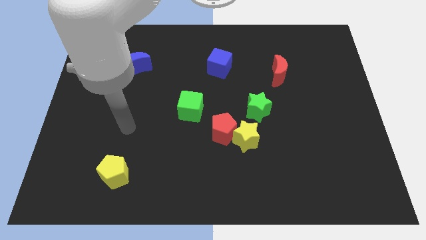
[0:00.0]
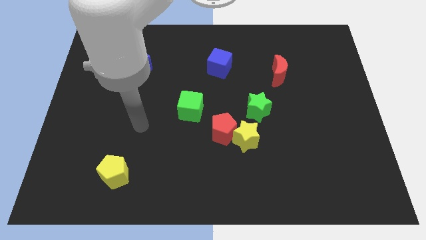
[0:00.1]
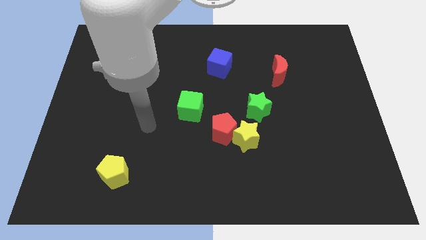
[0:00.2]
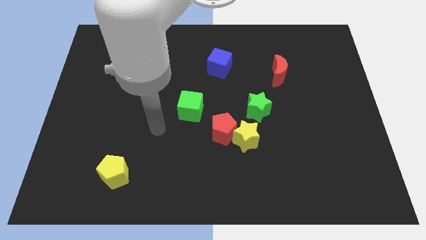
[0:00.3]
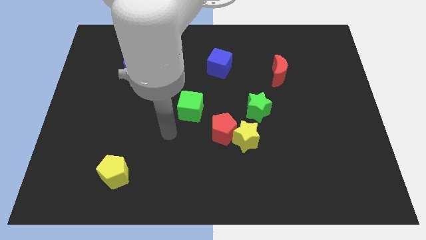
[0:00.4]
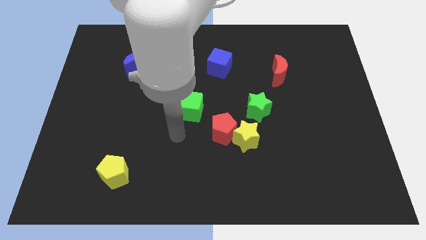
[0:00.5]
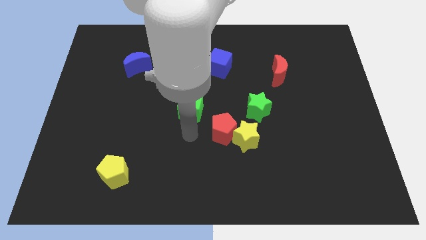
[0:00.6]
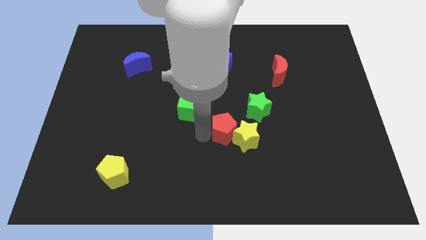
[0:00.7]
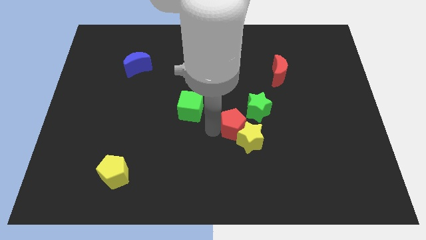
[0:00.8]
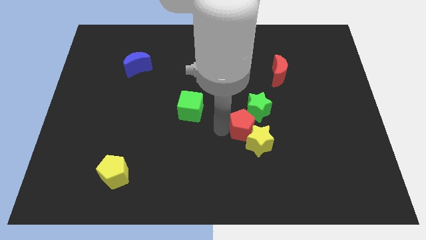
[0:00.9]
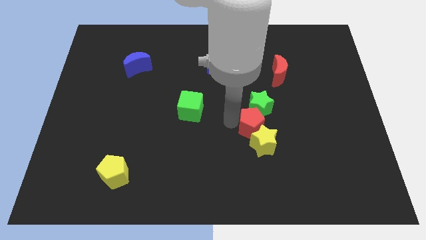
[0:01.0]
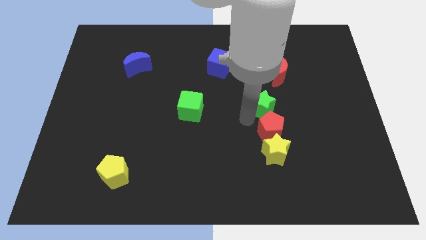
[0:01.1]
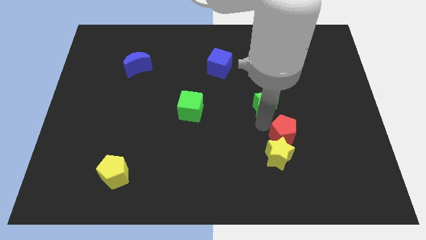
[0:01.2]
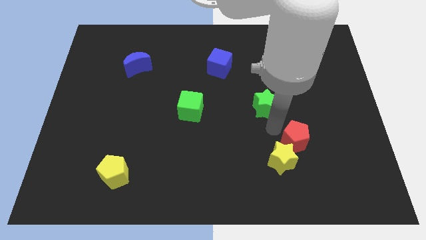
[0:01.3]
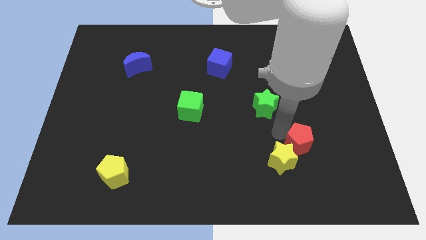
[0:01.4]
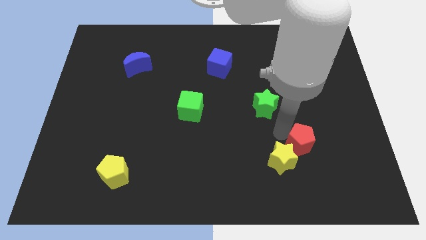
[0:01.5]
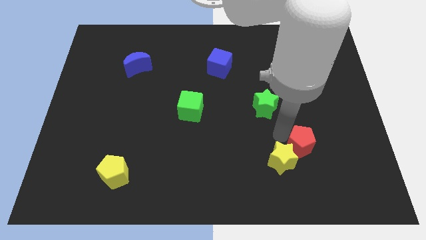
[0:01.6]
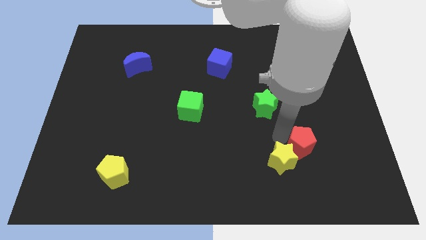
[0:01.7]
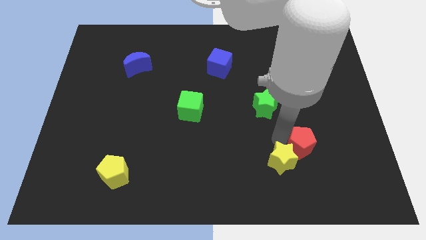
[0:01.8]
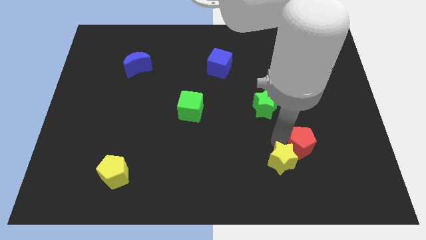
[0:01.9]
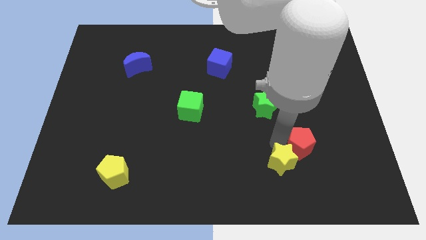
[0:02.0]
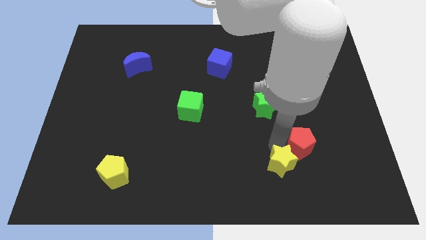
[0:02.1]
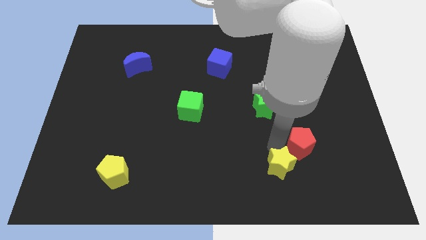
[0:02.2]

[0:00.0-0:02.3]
separate the yellow star from the red pentagon and green star

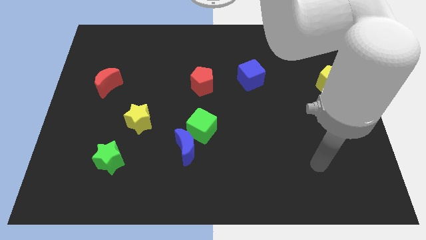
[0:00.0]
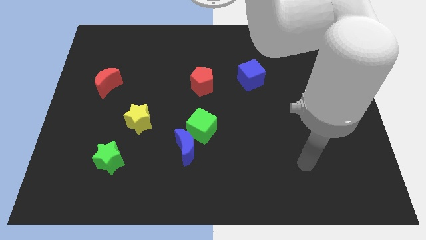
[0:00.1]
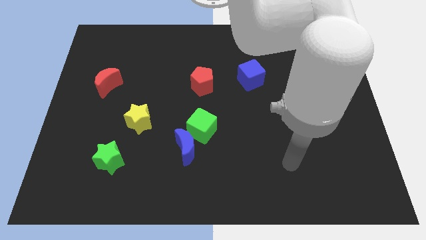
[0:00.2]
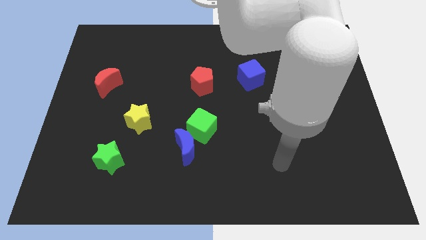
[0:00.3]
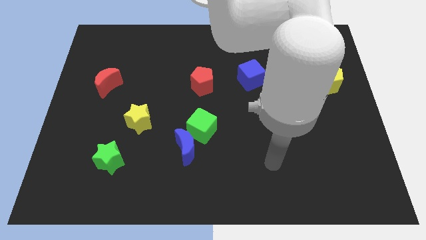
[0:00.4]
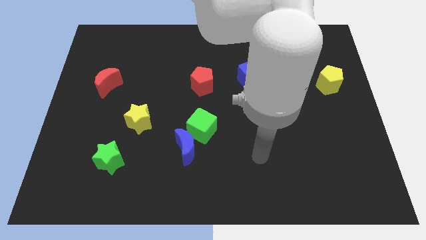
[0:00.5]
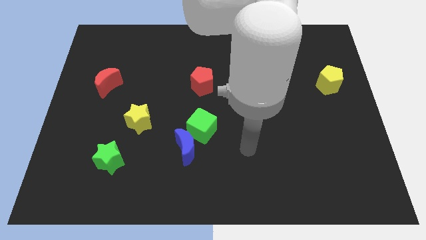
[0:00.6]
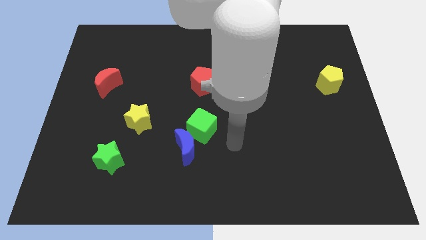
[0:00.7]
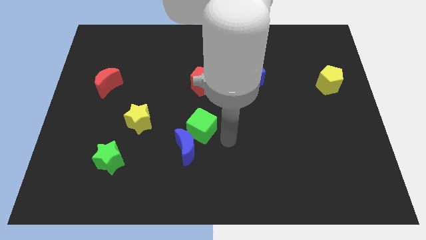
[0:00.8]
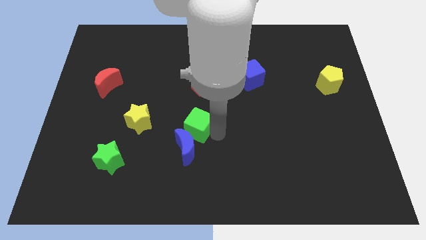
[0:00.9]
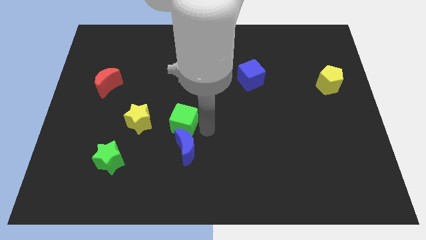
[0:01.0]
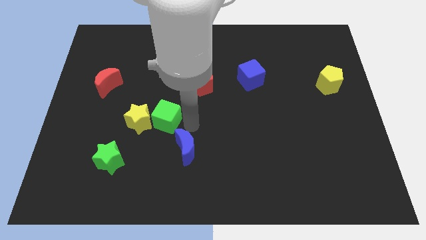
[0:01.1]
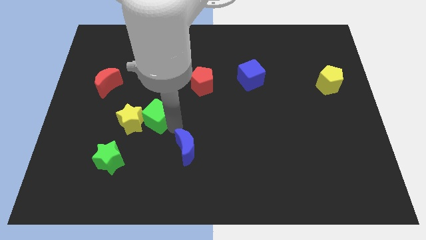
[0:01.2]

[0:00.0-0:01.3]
separate the blue moon from the green cube

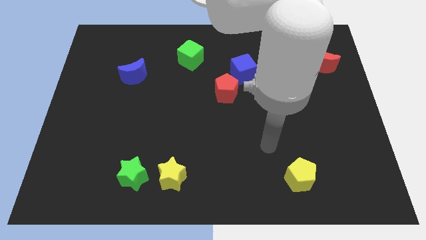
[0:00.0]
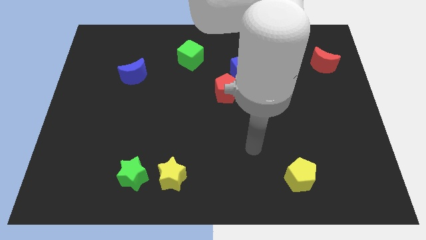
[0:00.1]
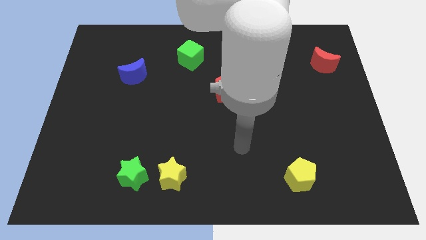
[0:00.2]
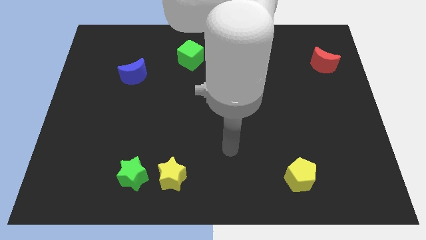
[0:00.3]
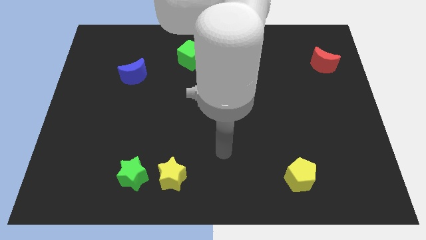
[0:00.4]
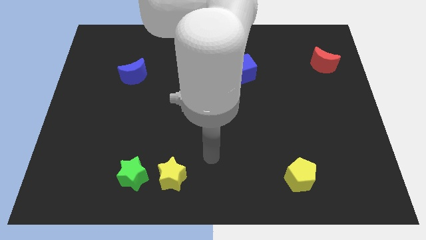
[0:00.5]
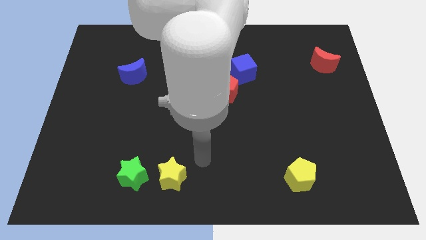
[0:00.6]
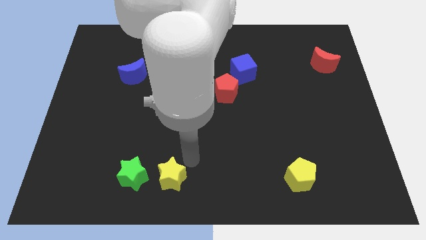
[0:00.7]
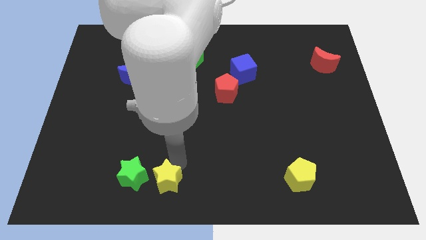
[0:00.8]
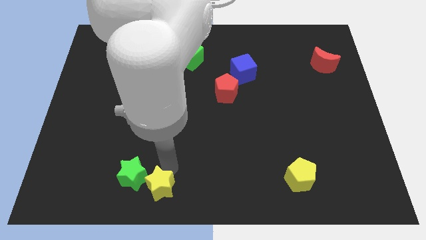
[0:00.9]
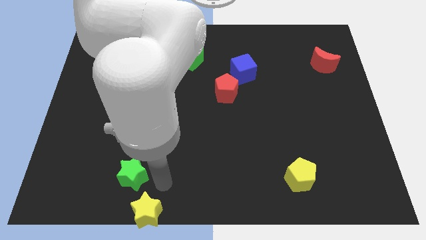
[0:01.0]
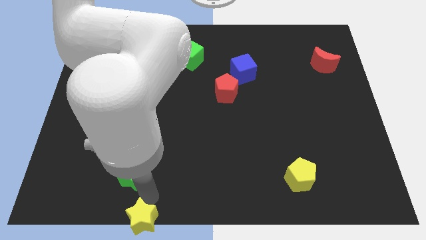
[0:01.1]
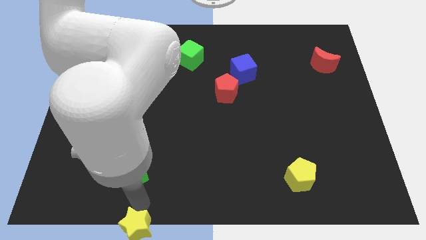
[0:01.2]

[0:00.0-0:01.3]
separate the green star from the yellow star

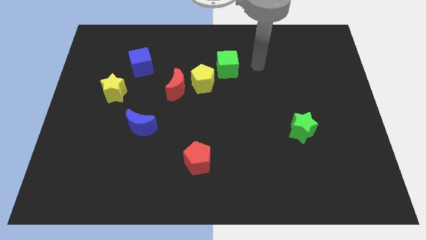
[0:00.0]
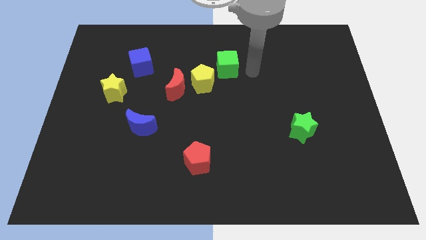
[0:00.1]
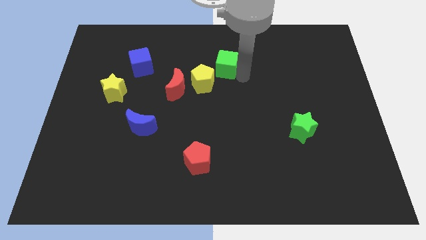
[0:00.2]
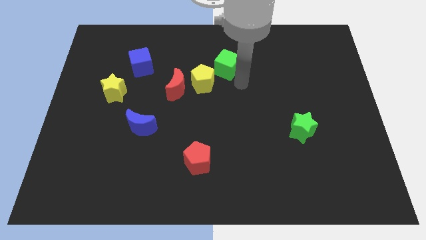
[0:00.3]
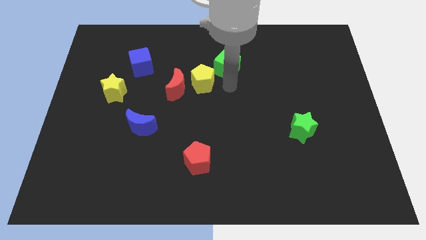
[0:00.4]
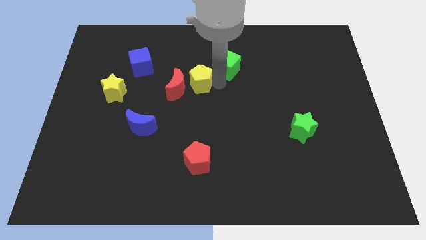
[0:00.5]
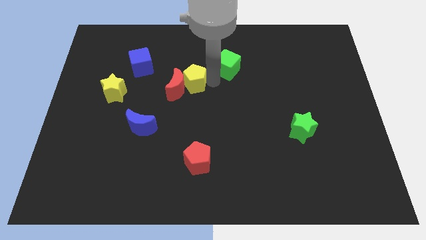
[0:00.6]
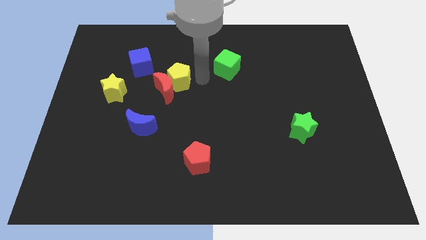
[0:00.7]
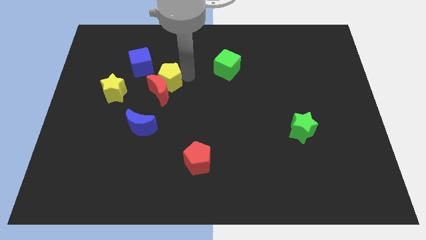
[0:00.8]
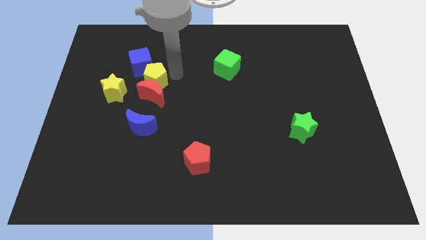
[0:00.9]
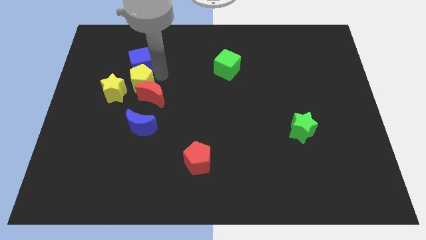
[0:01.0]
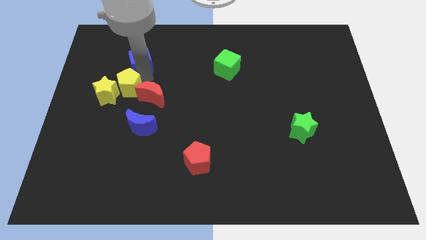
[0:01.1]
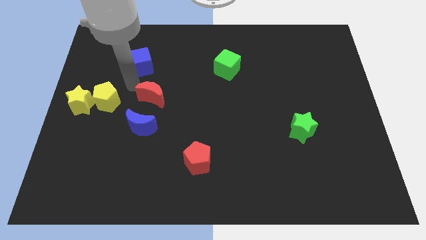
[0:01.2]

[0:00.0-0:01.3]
pull the red moon apart from the yellow pentagon

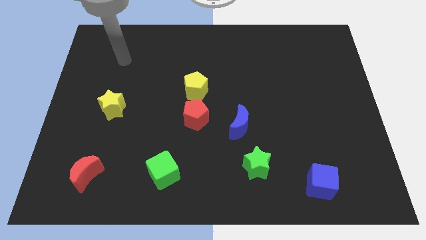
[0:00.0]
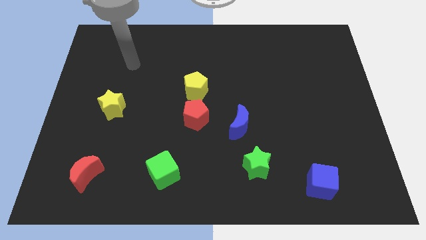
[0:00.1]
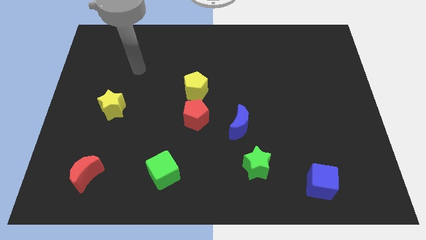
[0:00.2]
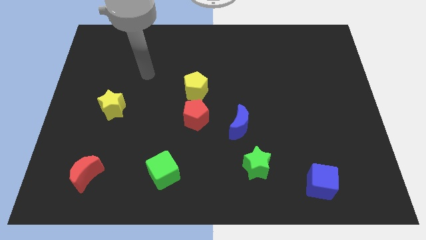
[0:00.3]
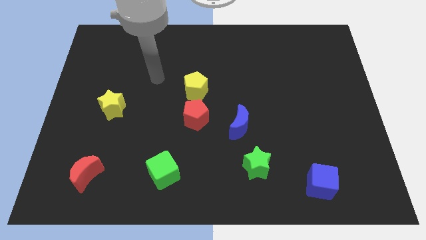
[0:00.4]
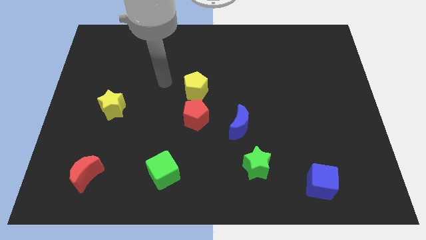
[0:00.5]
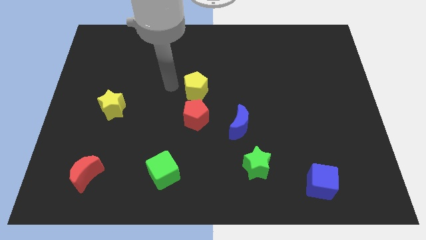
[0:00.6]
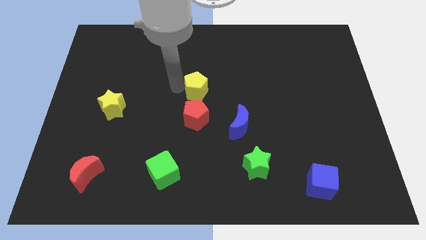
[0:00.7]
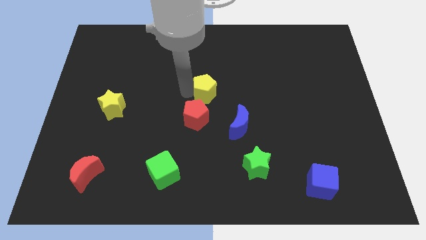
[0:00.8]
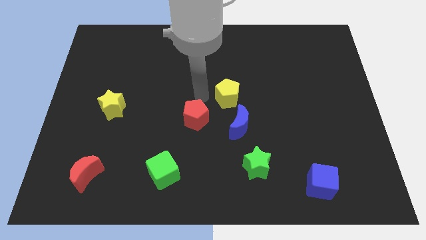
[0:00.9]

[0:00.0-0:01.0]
separate the red pentagon from the yellow pentagon

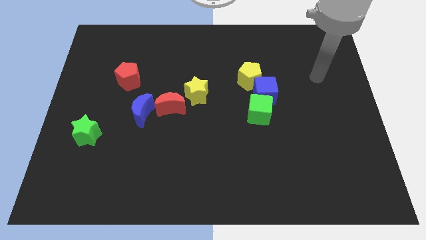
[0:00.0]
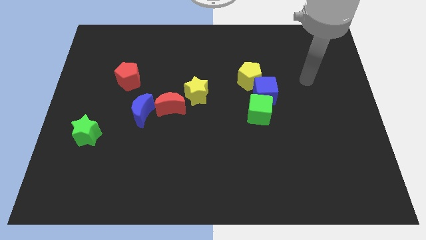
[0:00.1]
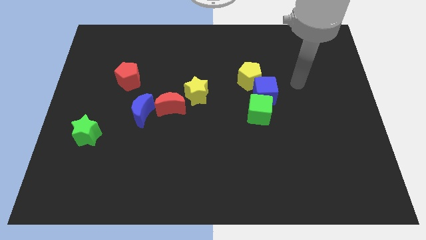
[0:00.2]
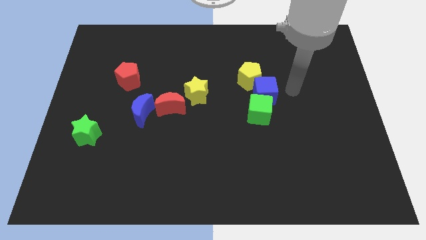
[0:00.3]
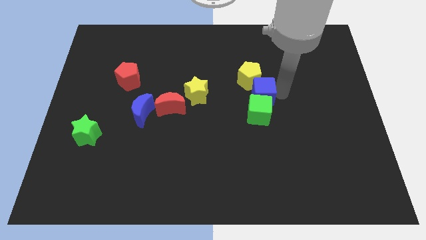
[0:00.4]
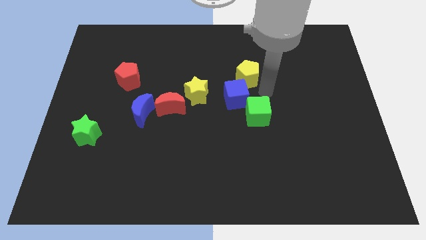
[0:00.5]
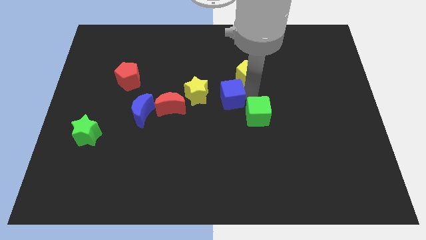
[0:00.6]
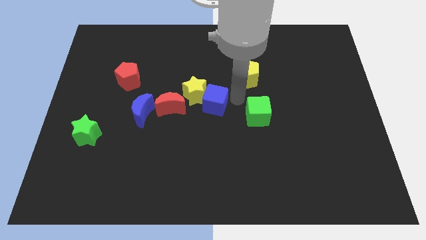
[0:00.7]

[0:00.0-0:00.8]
separate the green cube from the blue cube

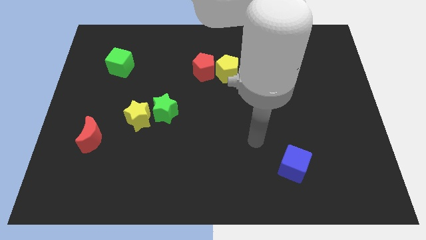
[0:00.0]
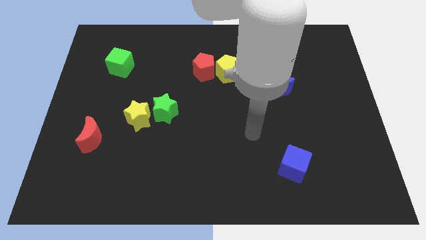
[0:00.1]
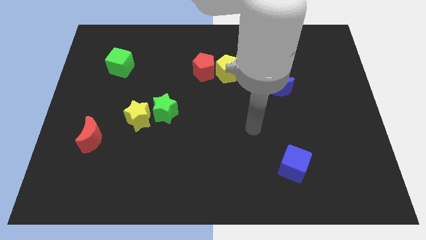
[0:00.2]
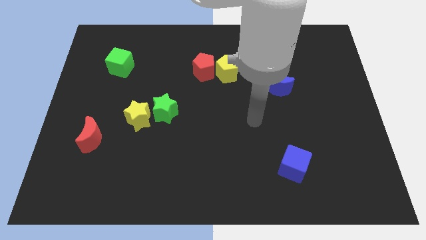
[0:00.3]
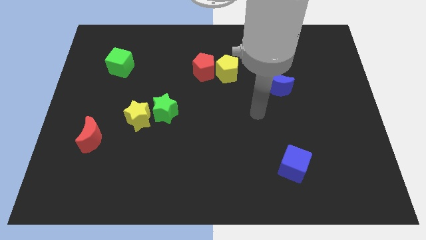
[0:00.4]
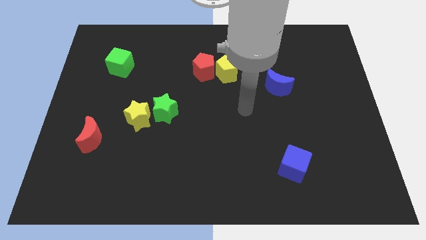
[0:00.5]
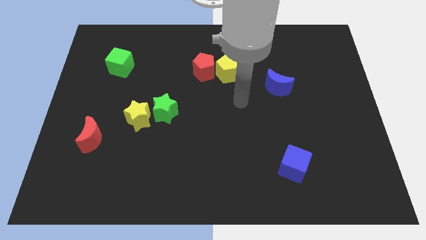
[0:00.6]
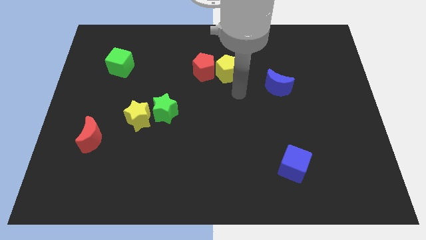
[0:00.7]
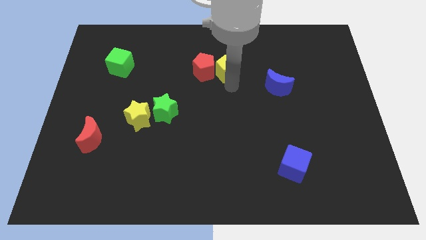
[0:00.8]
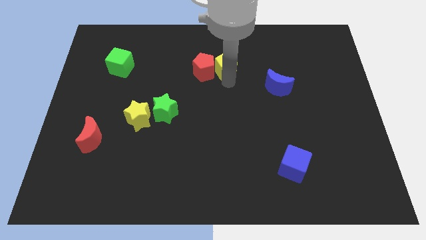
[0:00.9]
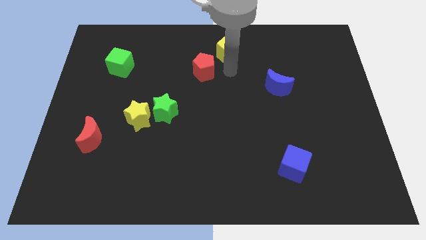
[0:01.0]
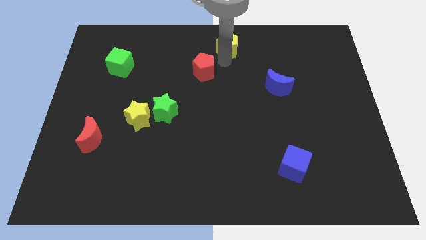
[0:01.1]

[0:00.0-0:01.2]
pull the red pentagon apart from the yellow pentagon
